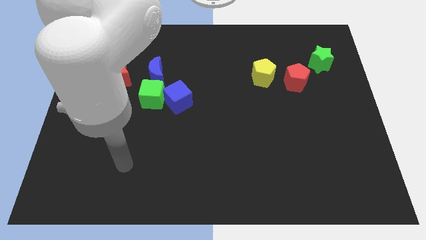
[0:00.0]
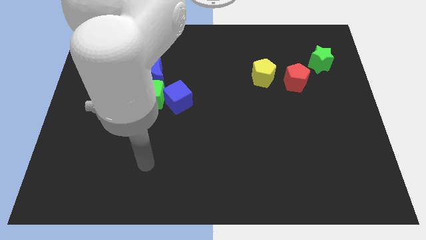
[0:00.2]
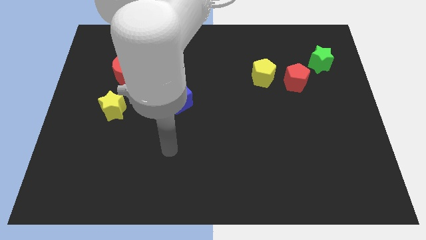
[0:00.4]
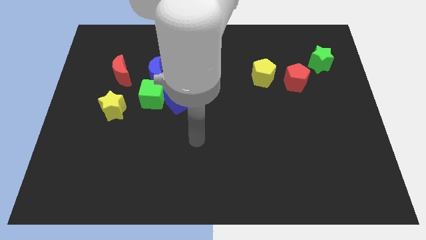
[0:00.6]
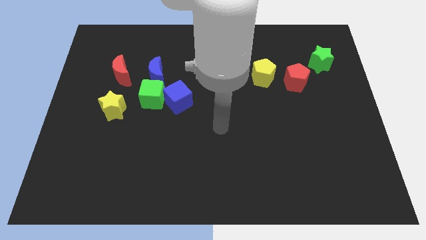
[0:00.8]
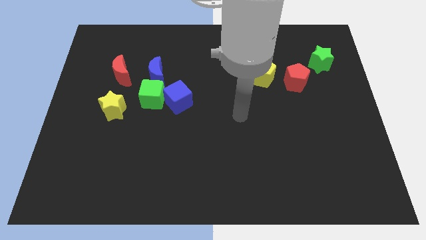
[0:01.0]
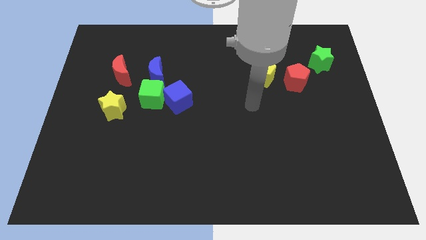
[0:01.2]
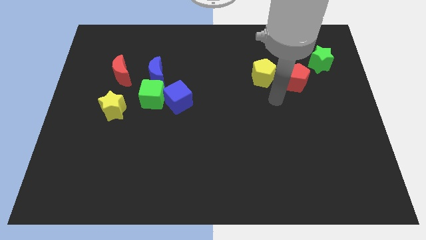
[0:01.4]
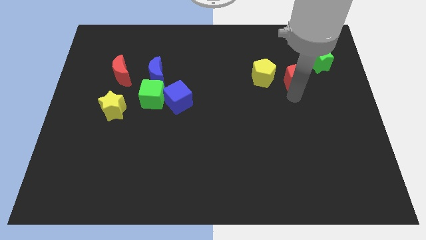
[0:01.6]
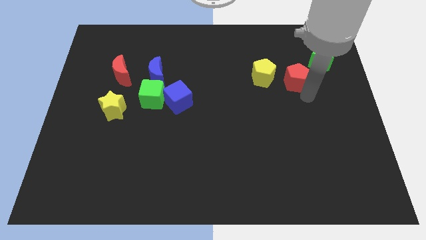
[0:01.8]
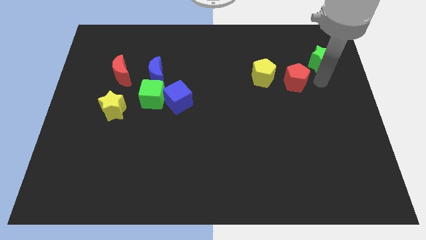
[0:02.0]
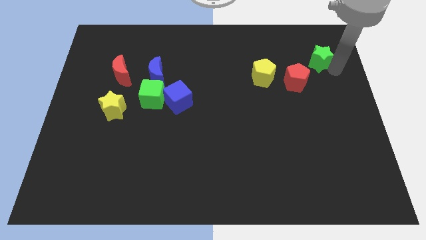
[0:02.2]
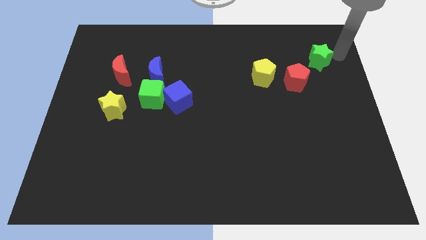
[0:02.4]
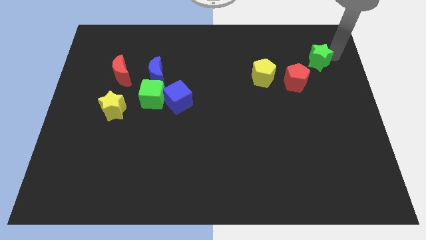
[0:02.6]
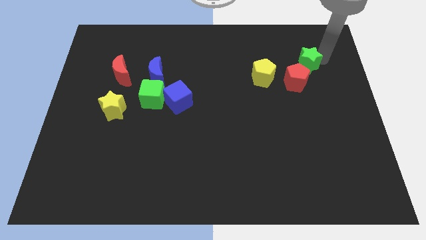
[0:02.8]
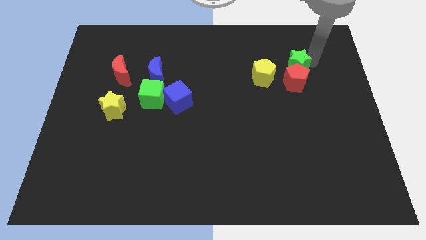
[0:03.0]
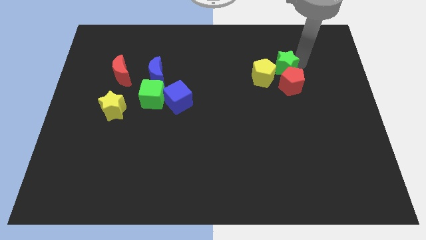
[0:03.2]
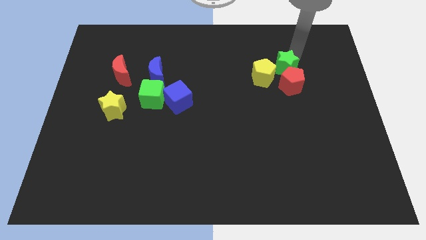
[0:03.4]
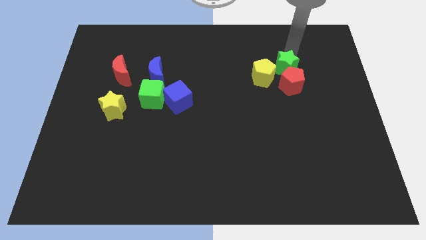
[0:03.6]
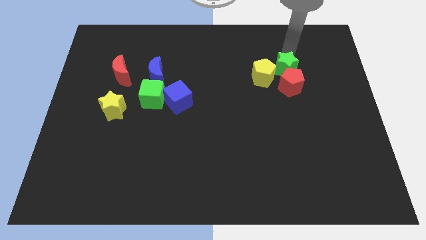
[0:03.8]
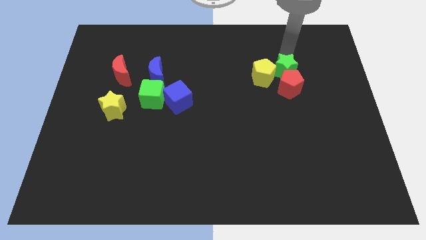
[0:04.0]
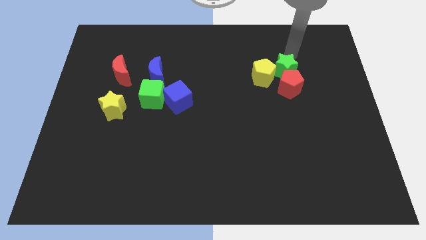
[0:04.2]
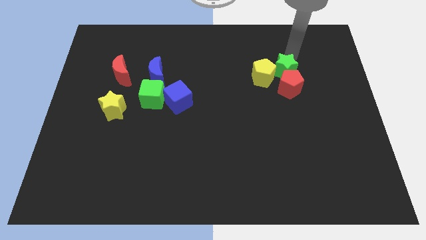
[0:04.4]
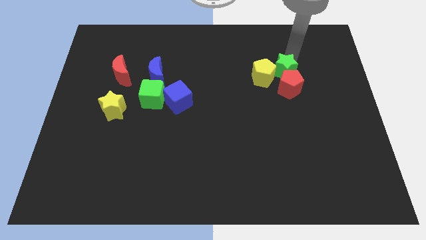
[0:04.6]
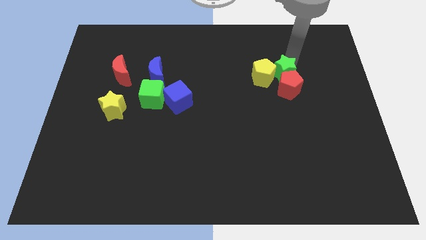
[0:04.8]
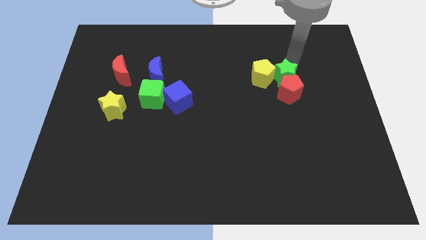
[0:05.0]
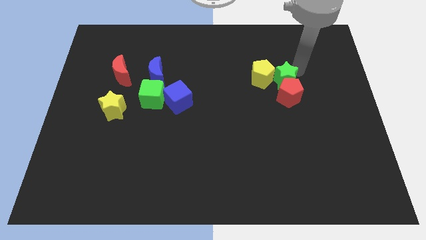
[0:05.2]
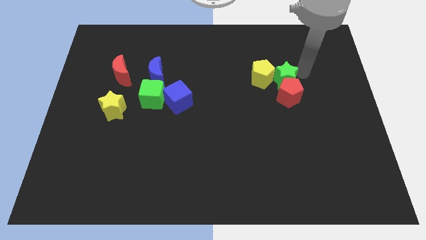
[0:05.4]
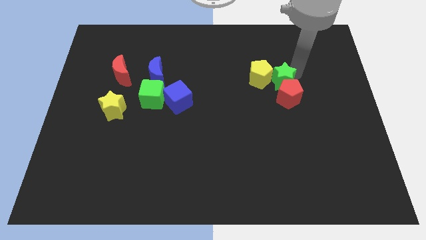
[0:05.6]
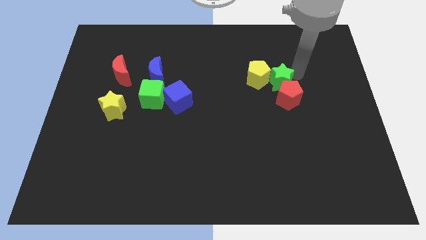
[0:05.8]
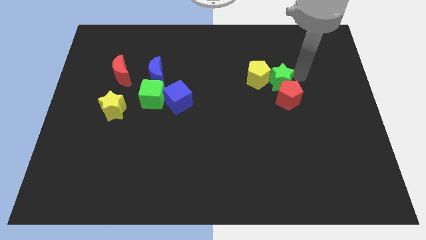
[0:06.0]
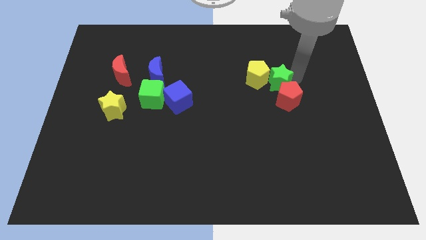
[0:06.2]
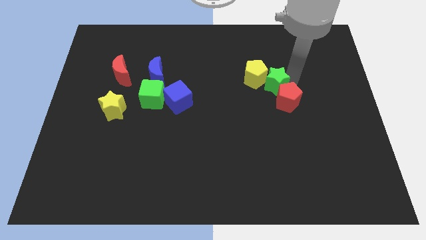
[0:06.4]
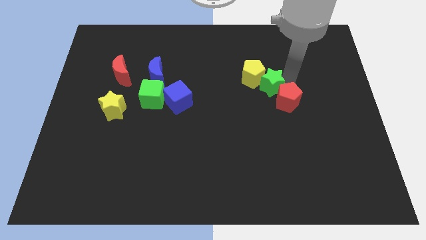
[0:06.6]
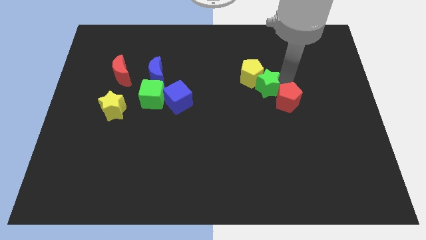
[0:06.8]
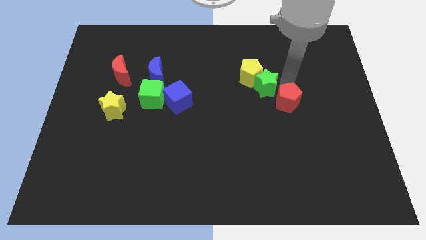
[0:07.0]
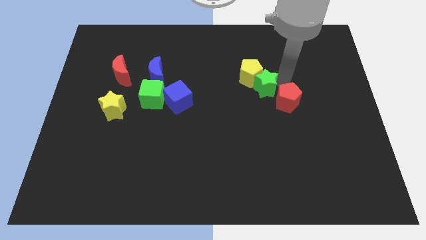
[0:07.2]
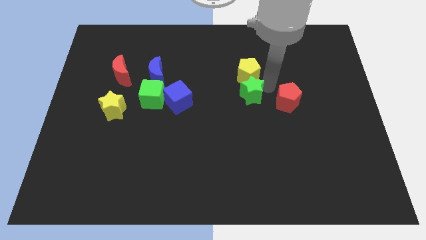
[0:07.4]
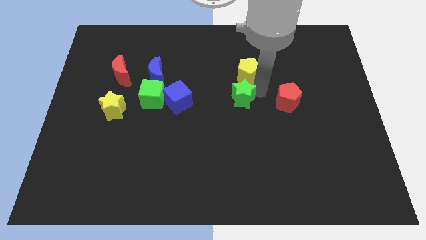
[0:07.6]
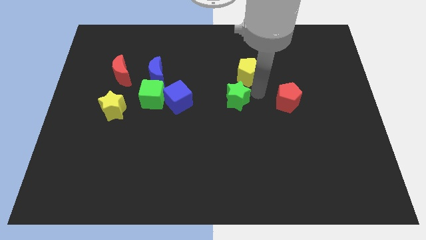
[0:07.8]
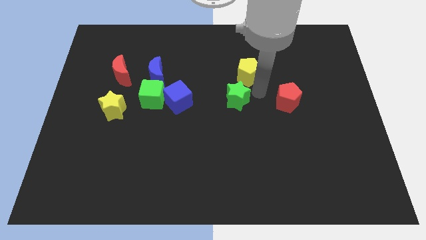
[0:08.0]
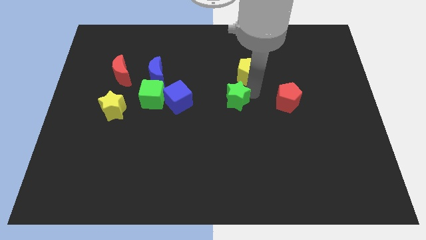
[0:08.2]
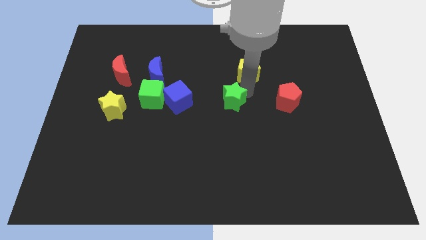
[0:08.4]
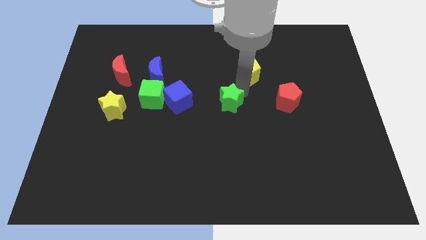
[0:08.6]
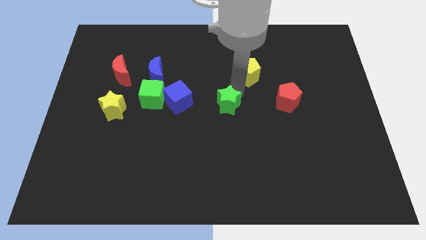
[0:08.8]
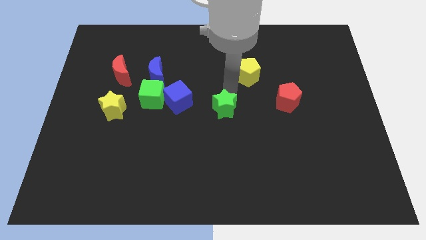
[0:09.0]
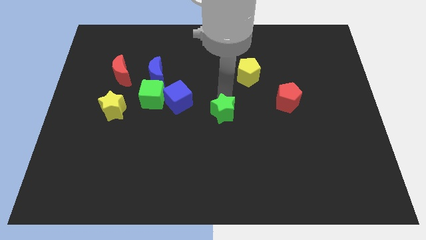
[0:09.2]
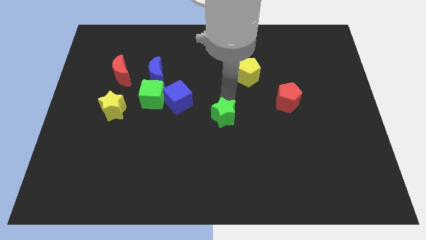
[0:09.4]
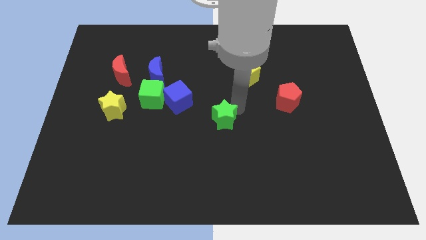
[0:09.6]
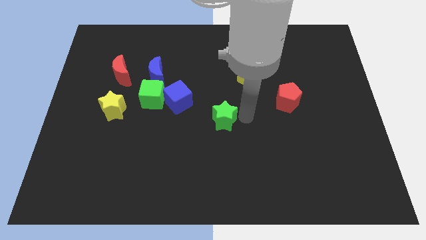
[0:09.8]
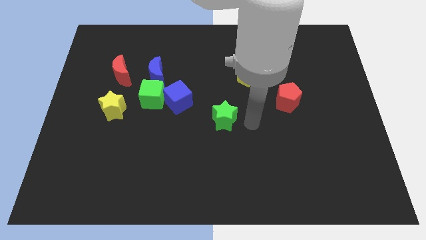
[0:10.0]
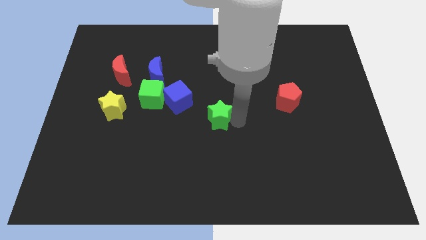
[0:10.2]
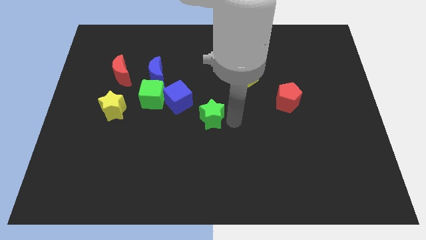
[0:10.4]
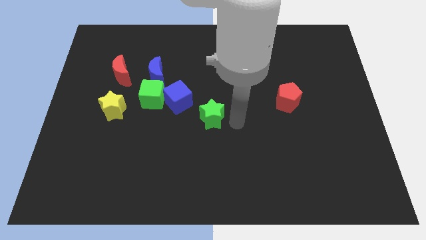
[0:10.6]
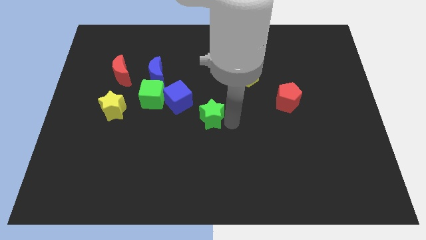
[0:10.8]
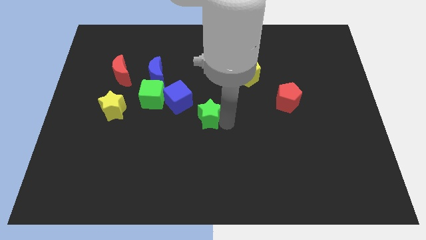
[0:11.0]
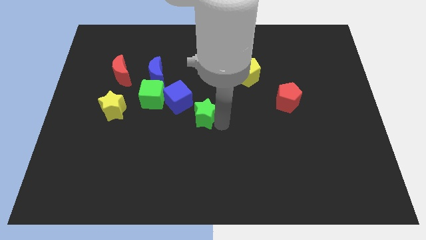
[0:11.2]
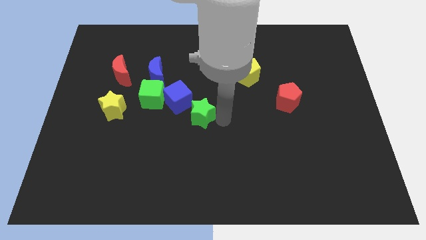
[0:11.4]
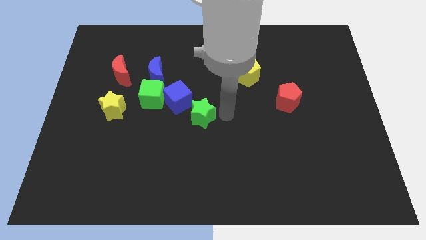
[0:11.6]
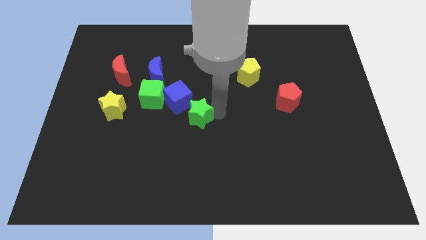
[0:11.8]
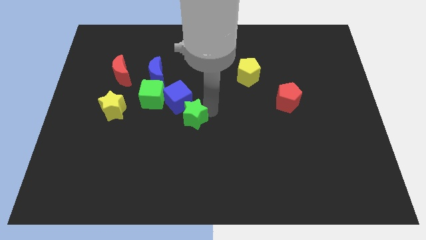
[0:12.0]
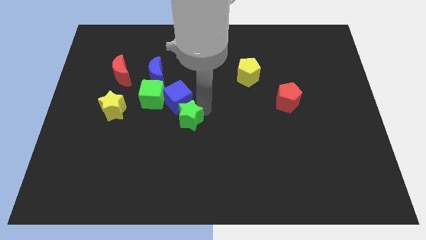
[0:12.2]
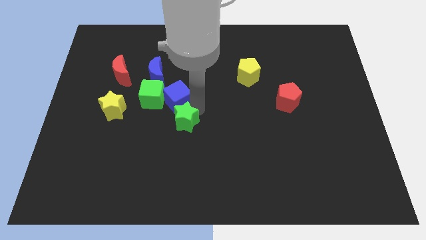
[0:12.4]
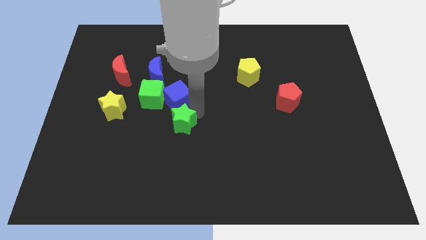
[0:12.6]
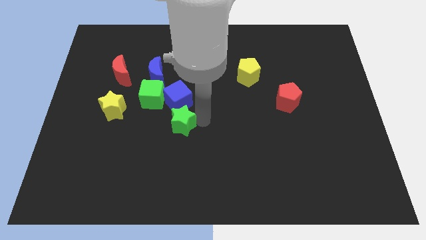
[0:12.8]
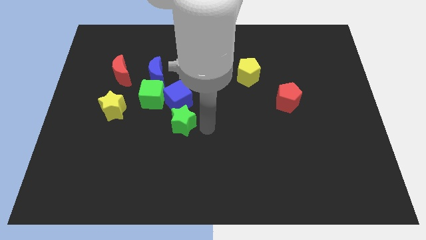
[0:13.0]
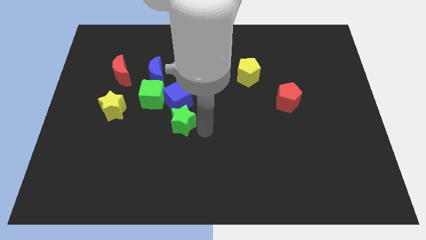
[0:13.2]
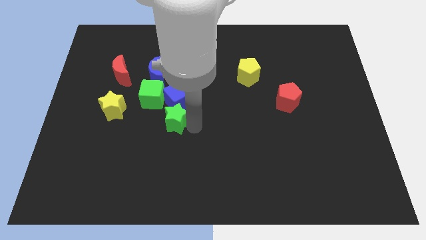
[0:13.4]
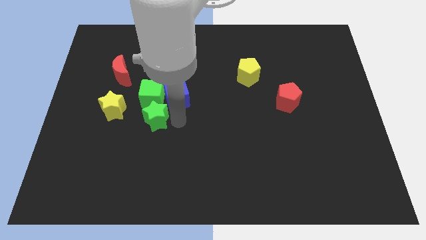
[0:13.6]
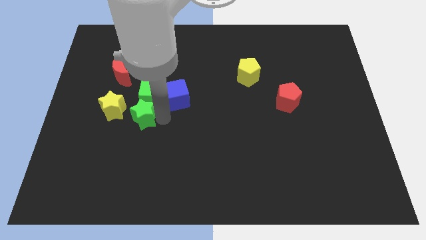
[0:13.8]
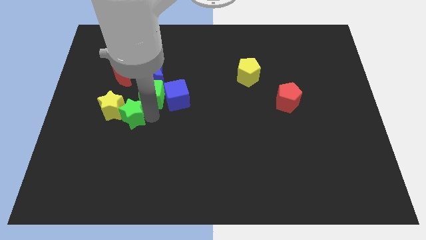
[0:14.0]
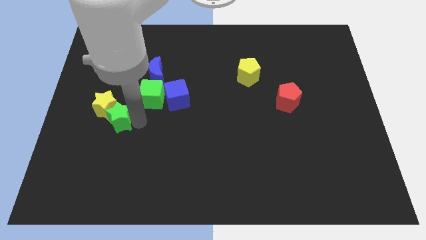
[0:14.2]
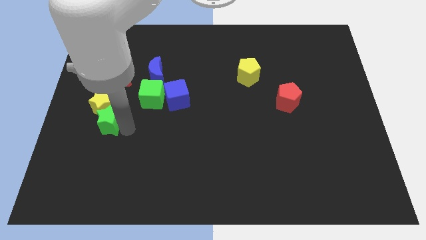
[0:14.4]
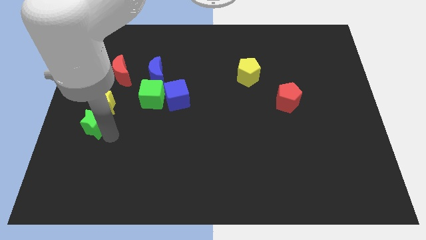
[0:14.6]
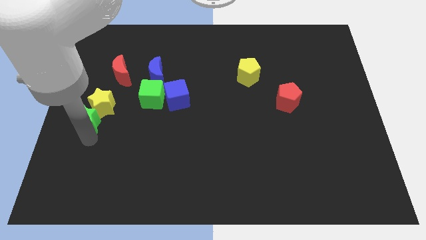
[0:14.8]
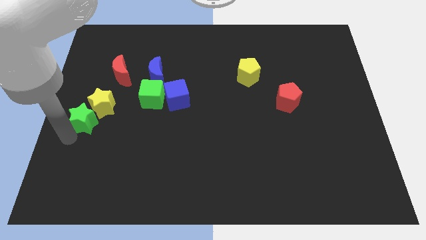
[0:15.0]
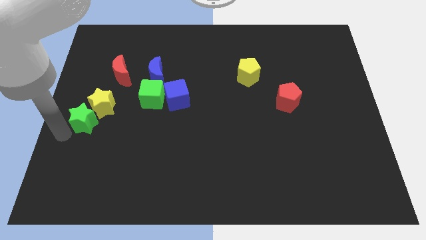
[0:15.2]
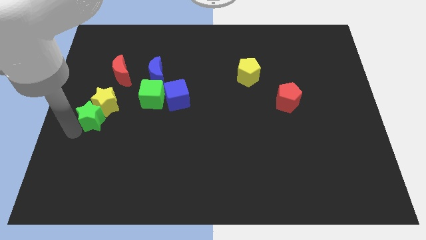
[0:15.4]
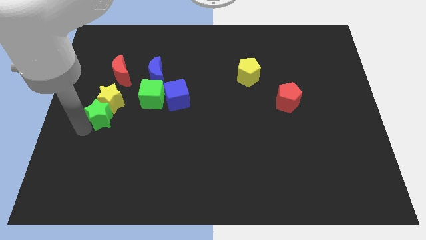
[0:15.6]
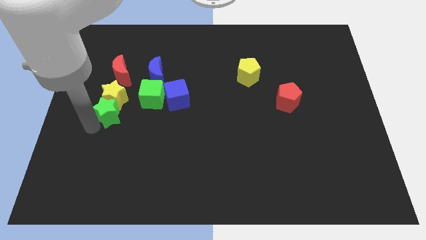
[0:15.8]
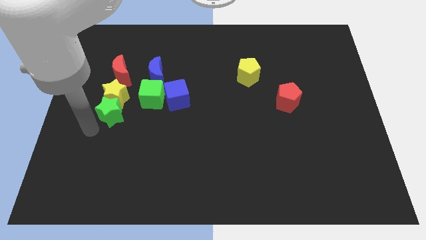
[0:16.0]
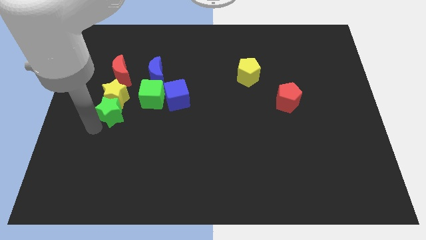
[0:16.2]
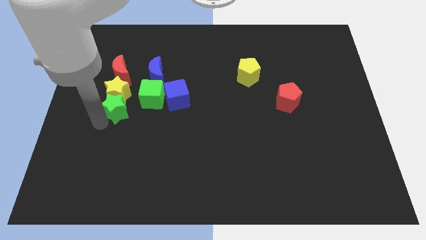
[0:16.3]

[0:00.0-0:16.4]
slide the green star left of the blue cube
